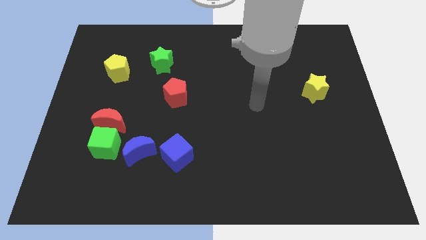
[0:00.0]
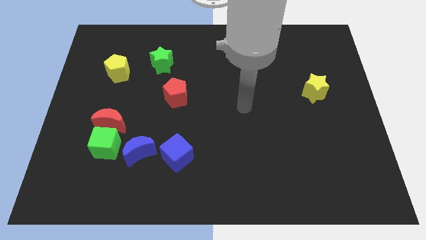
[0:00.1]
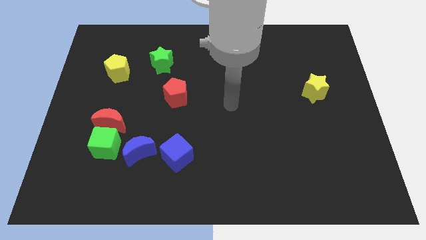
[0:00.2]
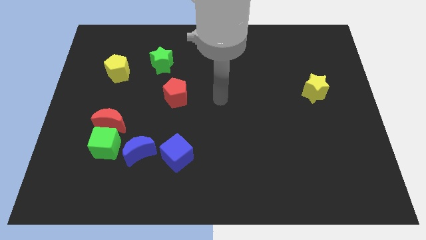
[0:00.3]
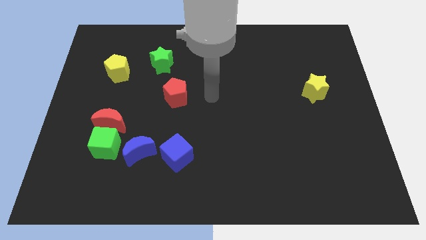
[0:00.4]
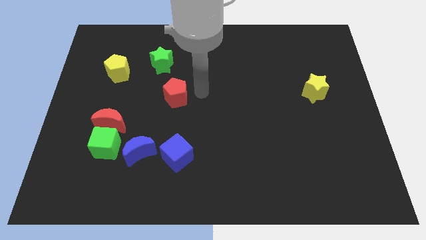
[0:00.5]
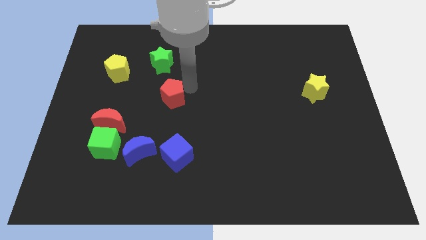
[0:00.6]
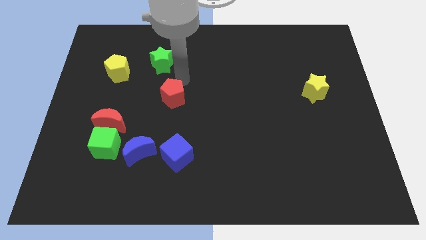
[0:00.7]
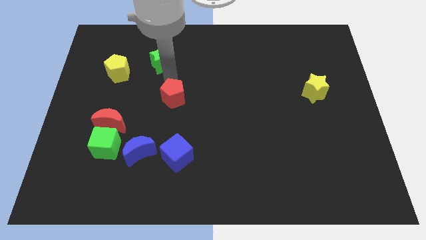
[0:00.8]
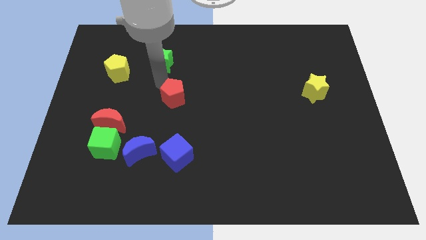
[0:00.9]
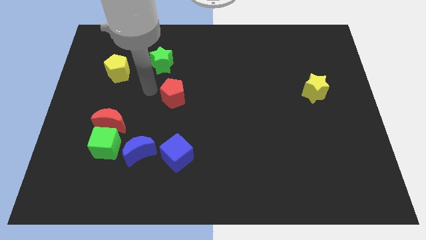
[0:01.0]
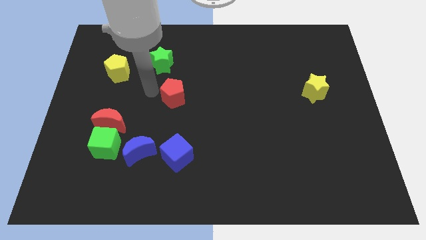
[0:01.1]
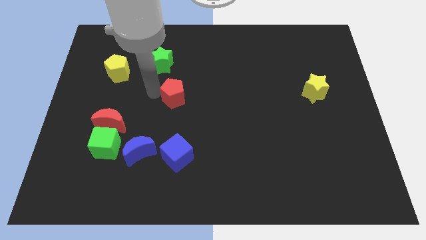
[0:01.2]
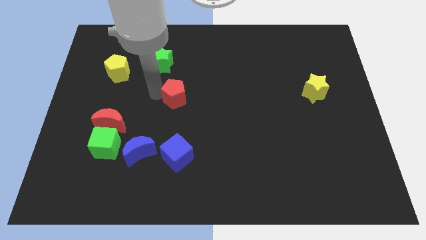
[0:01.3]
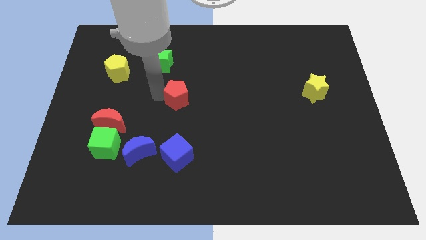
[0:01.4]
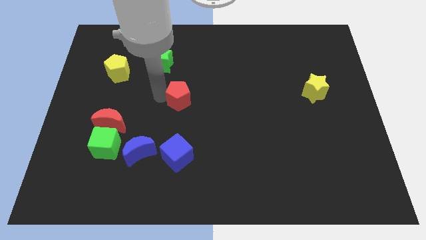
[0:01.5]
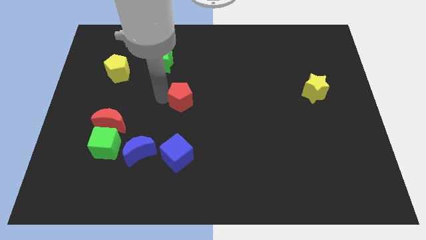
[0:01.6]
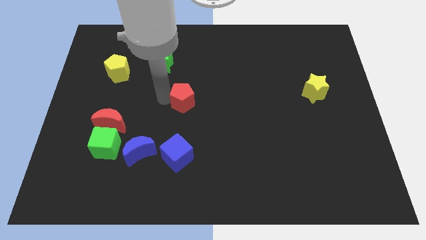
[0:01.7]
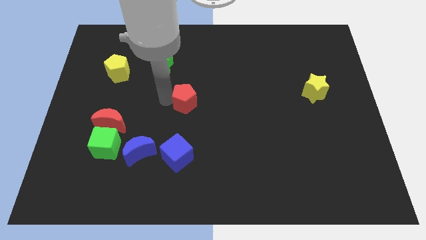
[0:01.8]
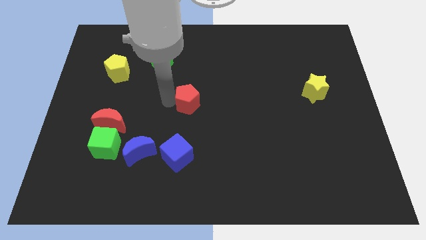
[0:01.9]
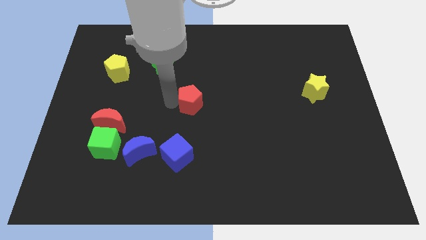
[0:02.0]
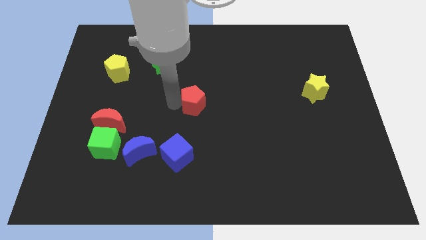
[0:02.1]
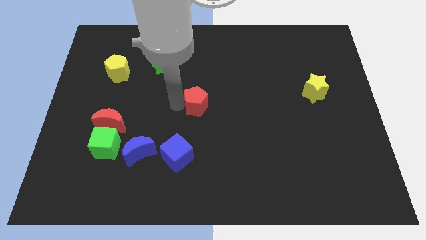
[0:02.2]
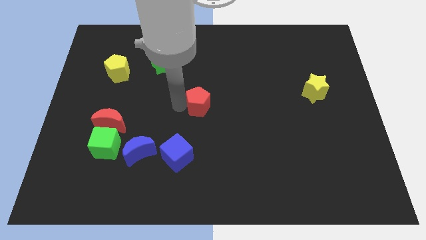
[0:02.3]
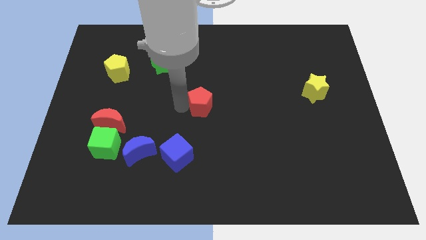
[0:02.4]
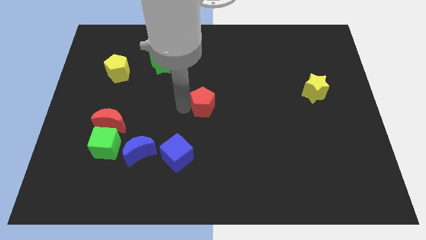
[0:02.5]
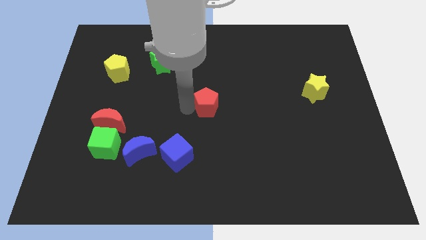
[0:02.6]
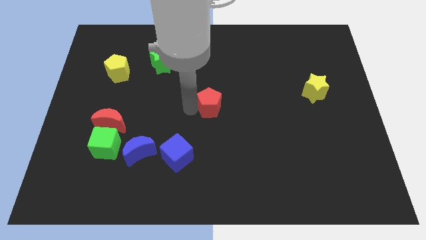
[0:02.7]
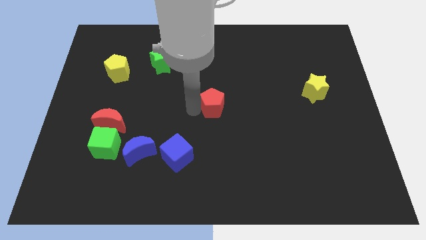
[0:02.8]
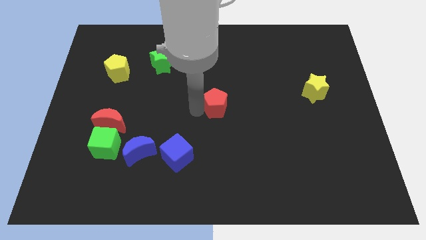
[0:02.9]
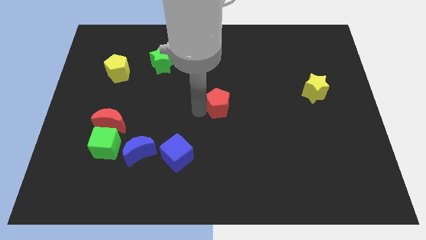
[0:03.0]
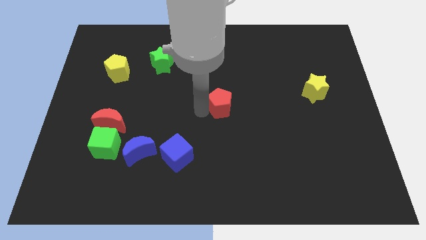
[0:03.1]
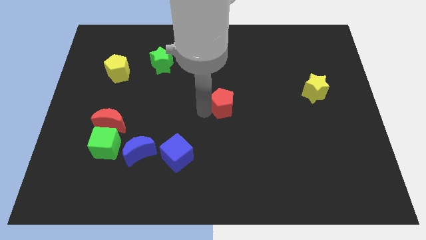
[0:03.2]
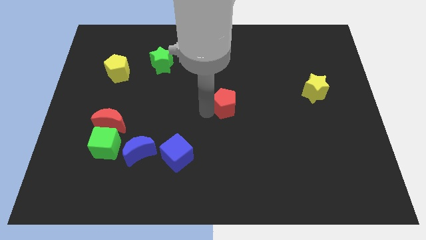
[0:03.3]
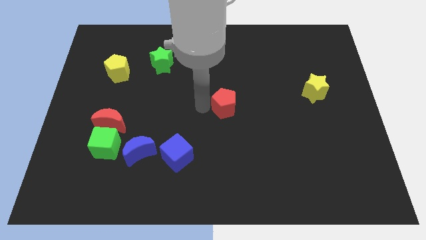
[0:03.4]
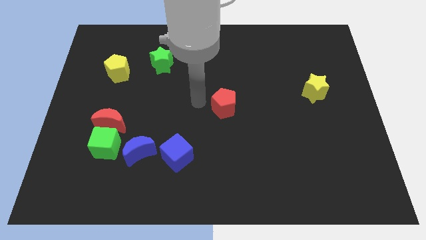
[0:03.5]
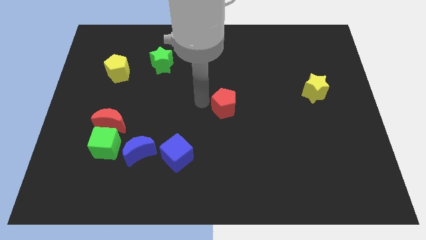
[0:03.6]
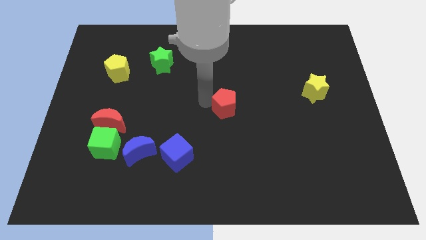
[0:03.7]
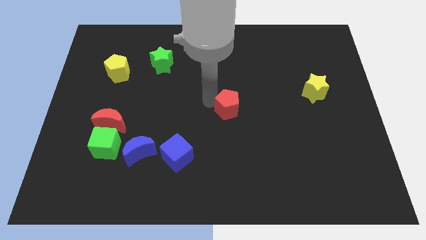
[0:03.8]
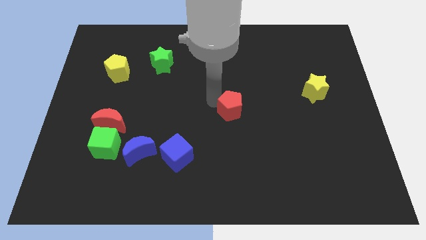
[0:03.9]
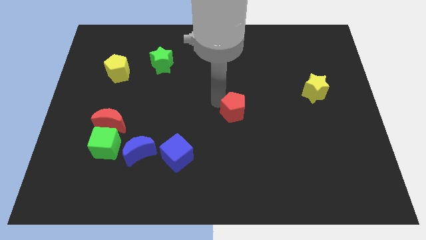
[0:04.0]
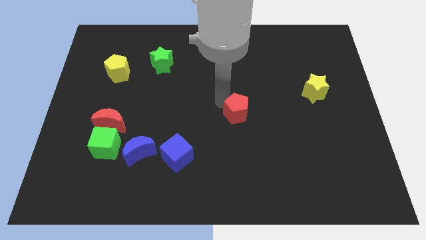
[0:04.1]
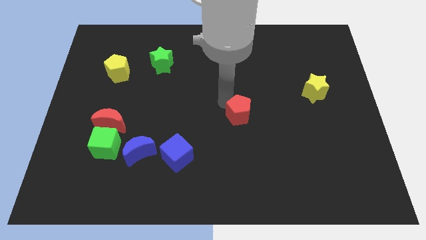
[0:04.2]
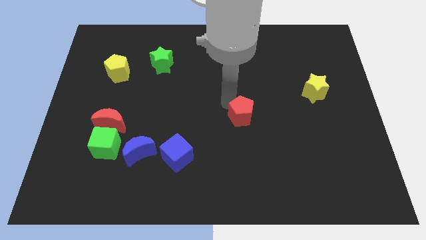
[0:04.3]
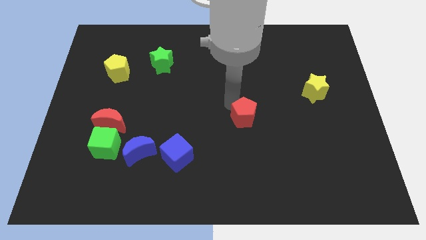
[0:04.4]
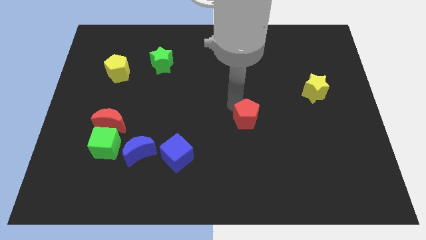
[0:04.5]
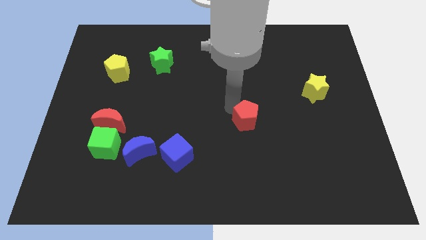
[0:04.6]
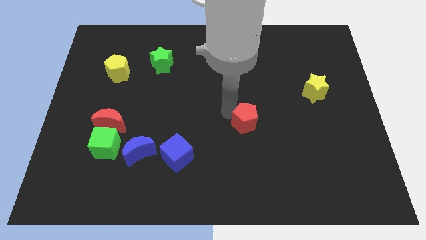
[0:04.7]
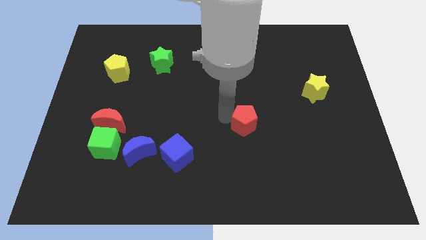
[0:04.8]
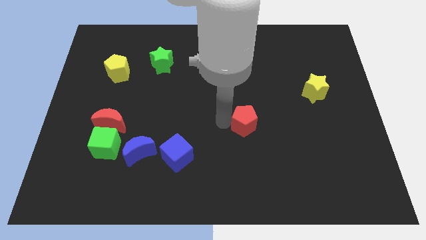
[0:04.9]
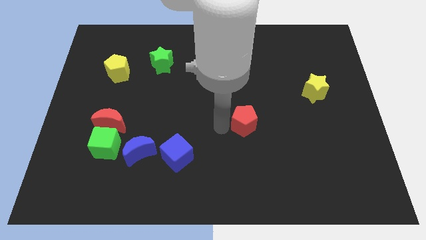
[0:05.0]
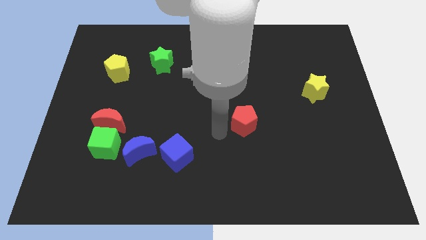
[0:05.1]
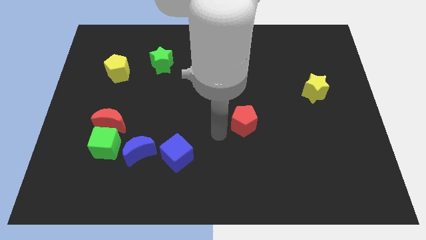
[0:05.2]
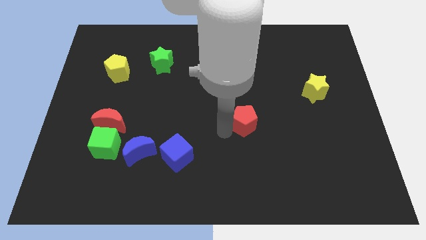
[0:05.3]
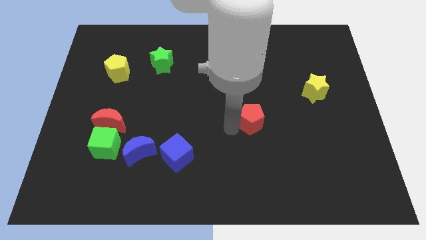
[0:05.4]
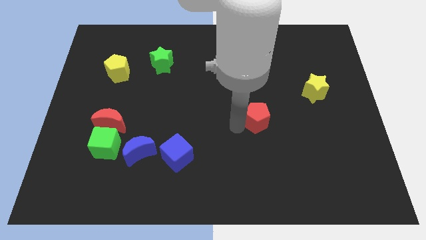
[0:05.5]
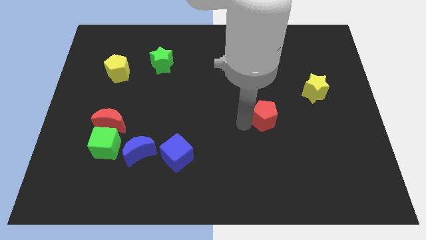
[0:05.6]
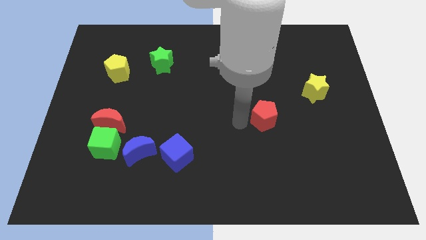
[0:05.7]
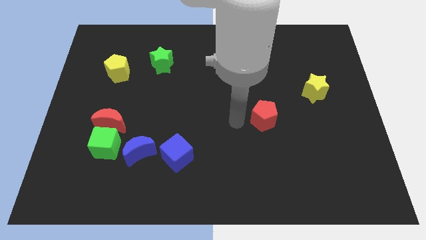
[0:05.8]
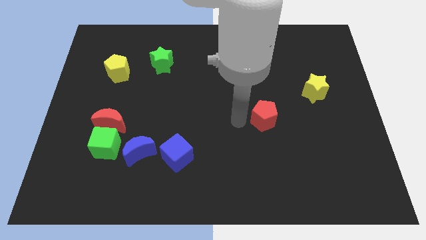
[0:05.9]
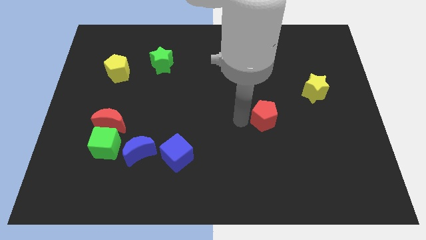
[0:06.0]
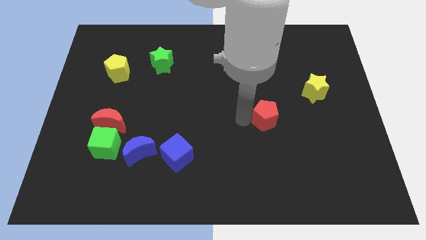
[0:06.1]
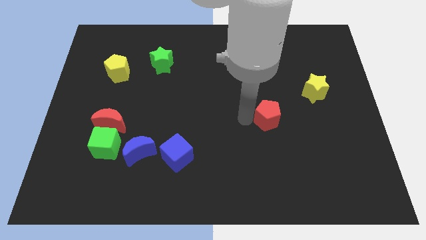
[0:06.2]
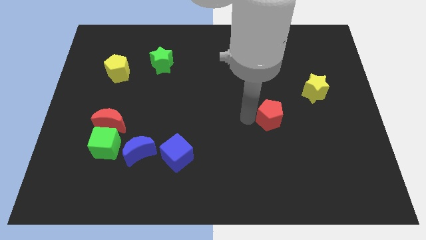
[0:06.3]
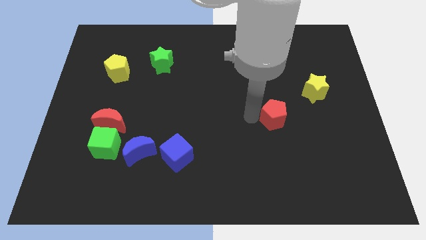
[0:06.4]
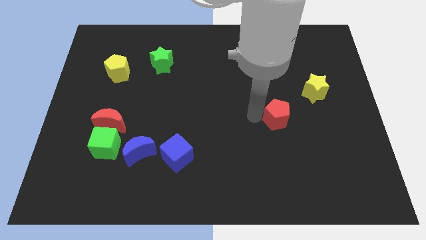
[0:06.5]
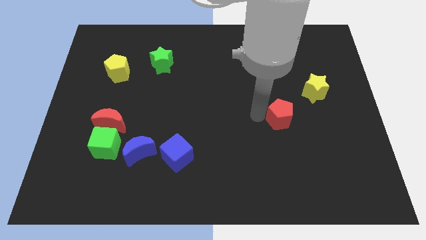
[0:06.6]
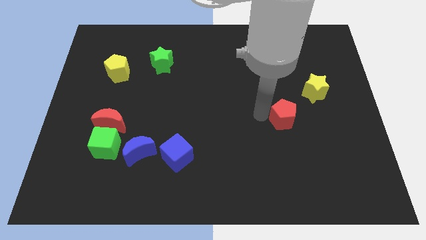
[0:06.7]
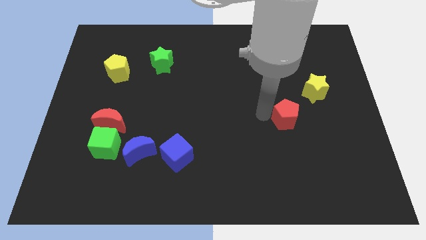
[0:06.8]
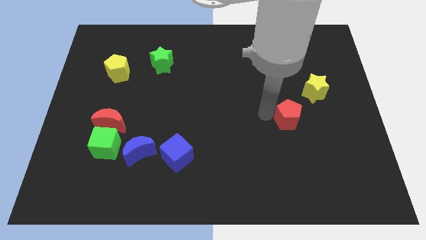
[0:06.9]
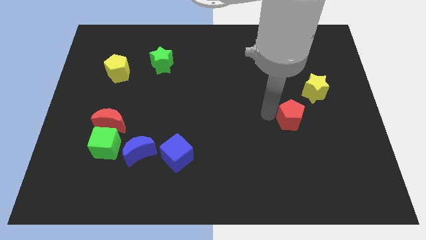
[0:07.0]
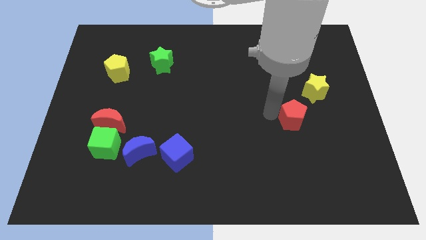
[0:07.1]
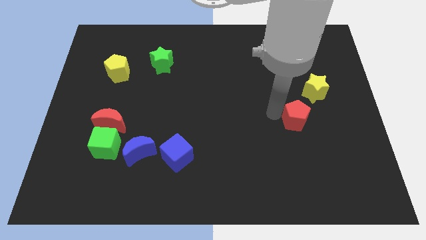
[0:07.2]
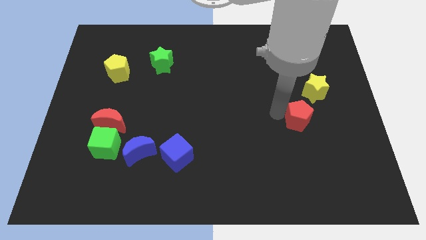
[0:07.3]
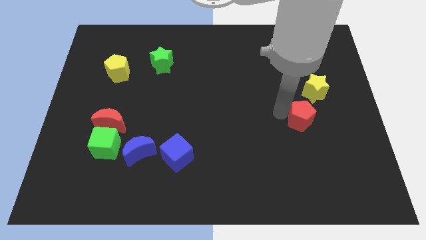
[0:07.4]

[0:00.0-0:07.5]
slide the red pentagon below the yellow star
